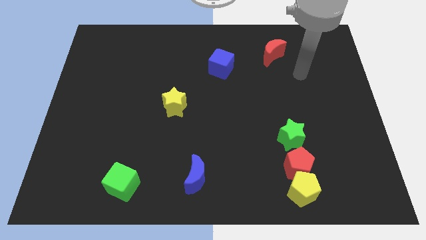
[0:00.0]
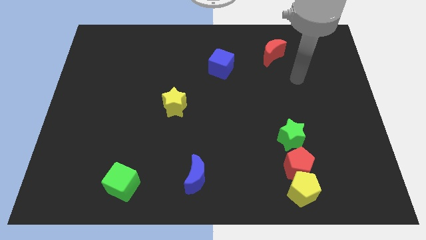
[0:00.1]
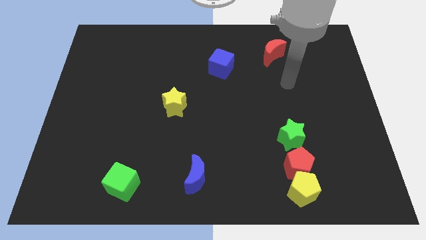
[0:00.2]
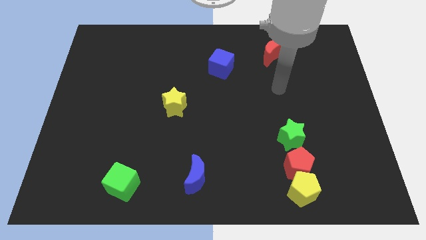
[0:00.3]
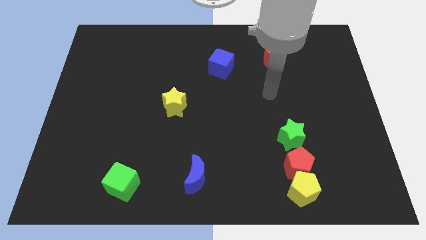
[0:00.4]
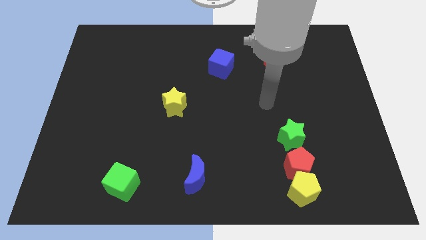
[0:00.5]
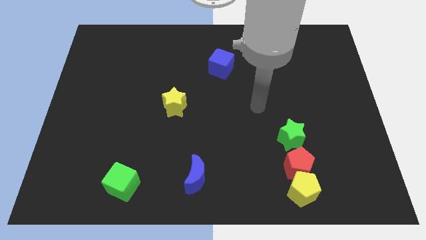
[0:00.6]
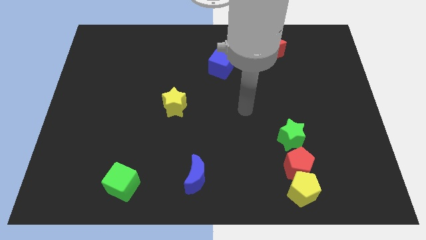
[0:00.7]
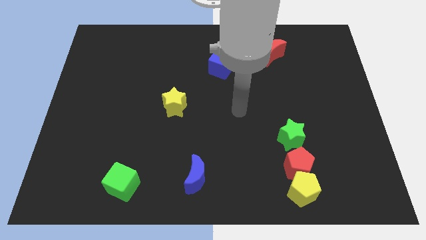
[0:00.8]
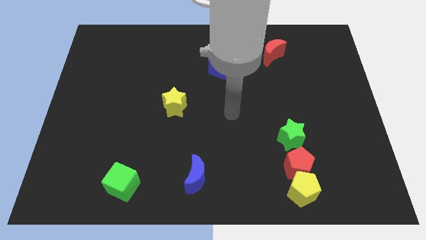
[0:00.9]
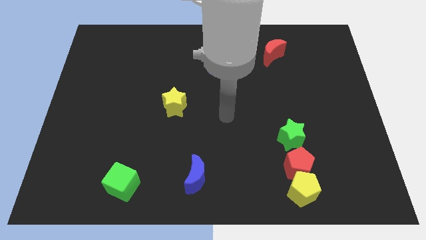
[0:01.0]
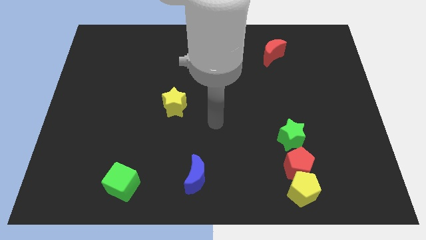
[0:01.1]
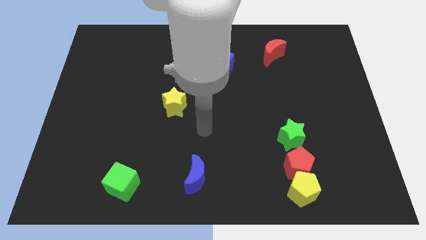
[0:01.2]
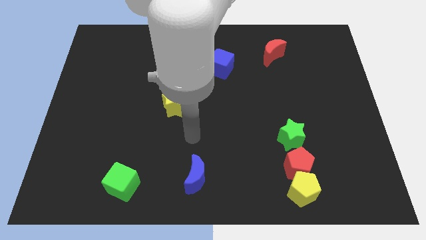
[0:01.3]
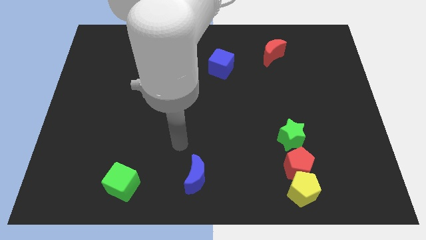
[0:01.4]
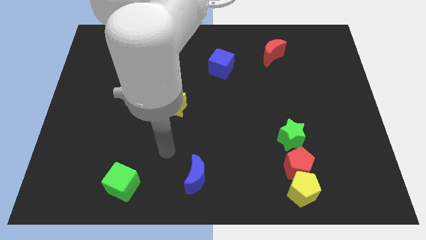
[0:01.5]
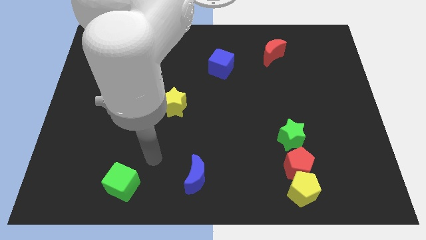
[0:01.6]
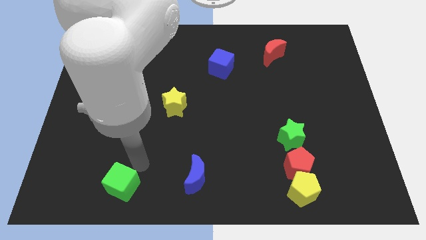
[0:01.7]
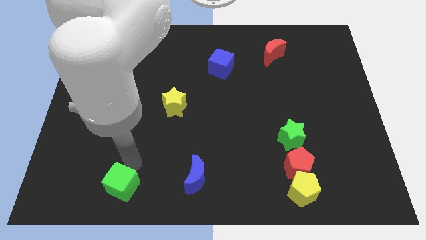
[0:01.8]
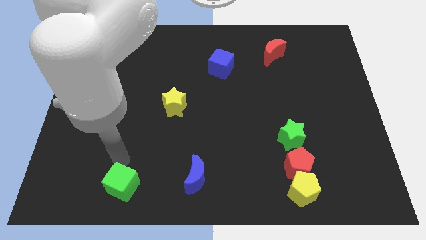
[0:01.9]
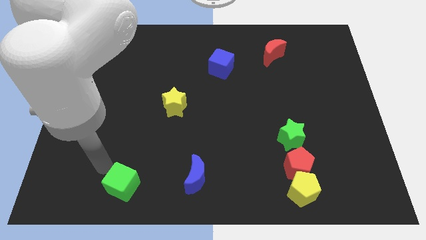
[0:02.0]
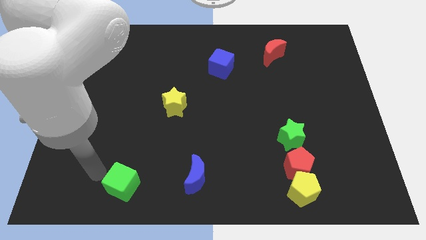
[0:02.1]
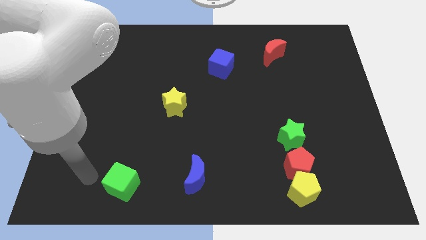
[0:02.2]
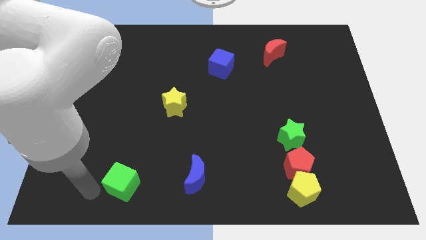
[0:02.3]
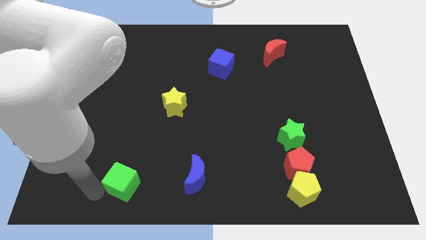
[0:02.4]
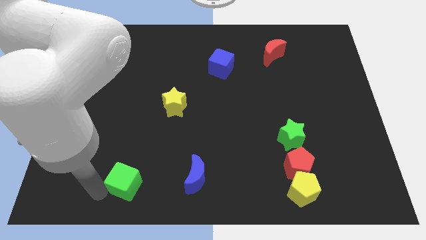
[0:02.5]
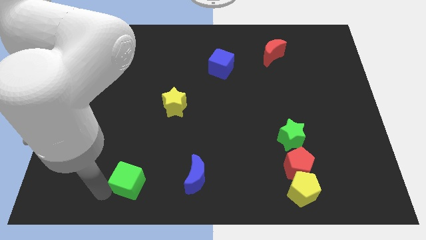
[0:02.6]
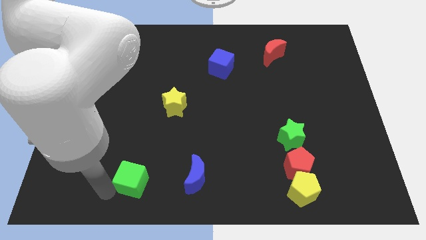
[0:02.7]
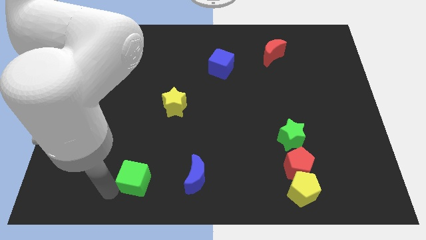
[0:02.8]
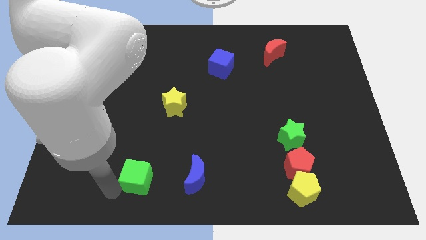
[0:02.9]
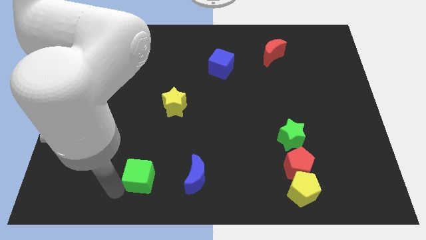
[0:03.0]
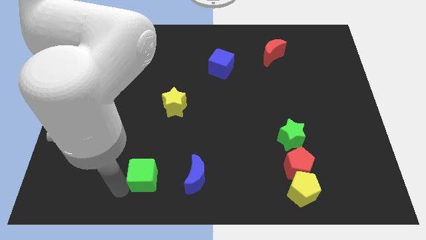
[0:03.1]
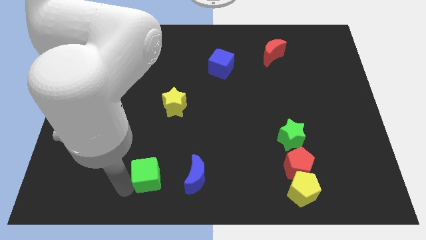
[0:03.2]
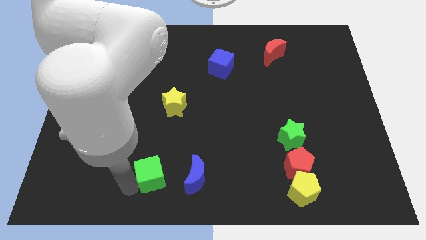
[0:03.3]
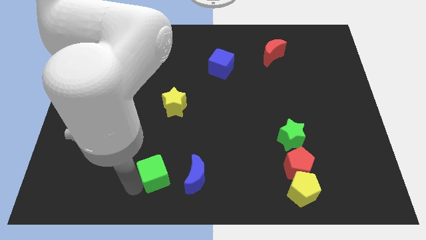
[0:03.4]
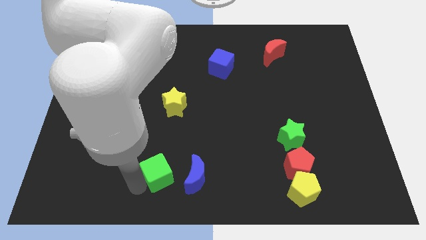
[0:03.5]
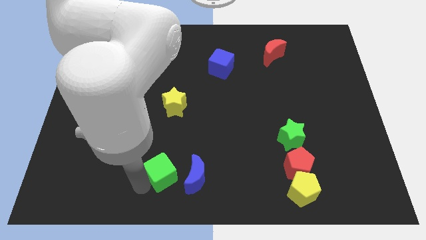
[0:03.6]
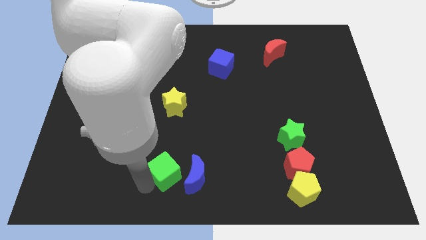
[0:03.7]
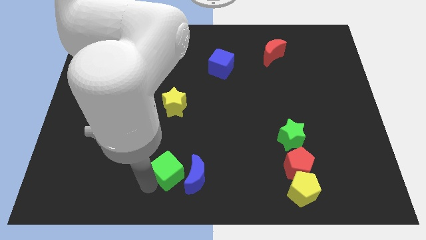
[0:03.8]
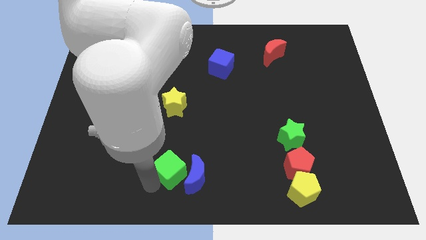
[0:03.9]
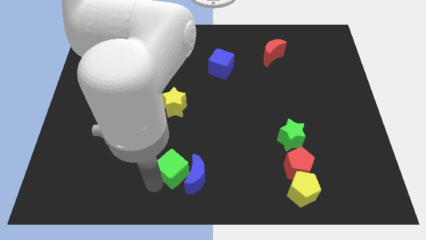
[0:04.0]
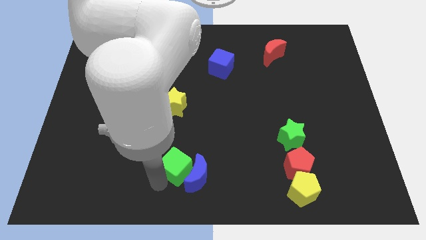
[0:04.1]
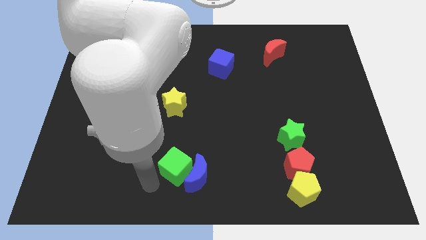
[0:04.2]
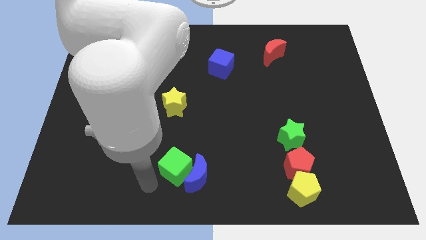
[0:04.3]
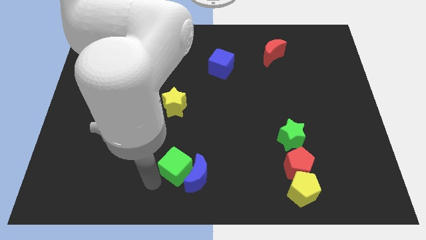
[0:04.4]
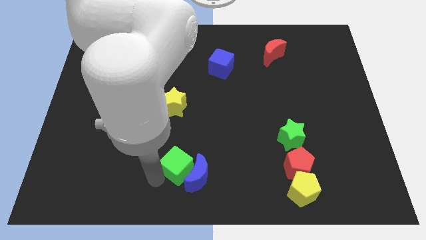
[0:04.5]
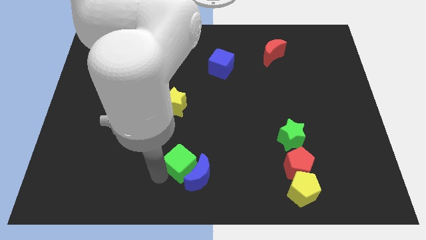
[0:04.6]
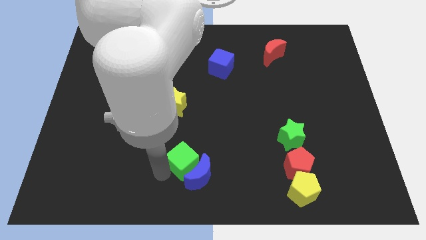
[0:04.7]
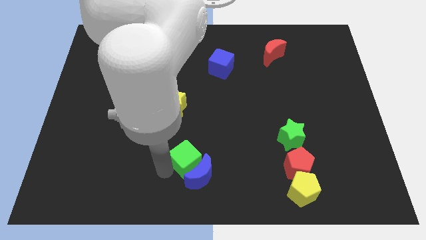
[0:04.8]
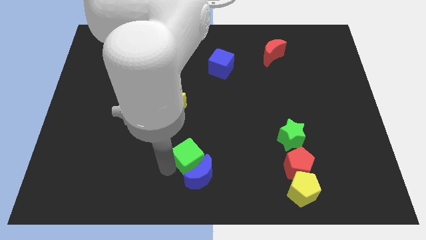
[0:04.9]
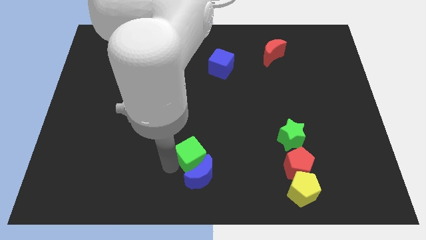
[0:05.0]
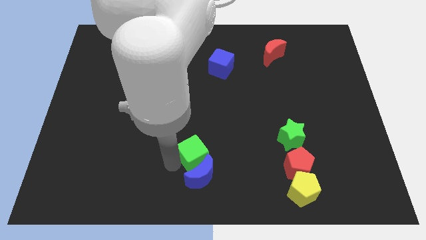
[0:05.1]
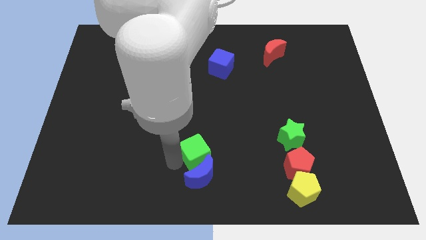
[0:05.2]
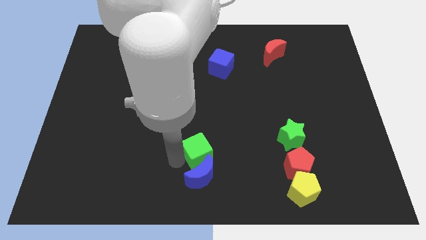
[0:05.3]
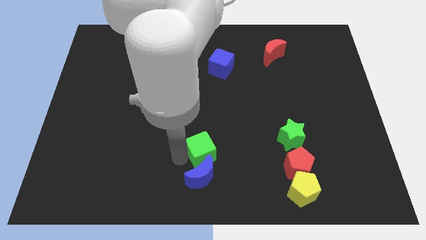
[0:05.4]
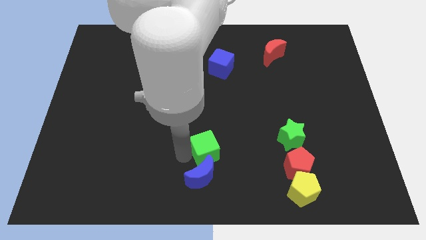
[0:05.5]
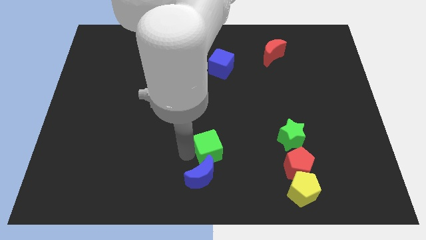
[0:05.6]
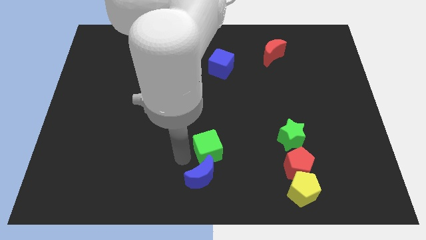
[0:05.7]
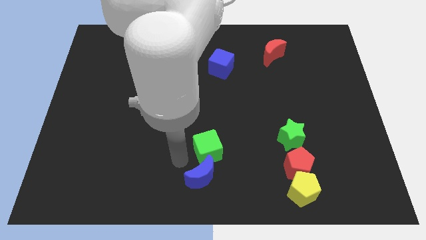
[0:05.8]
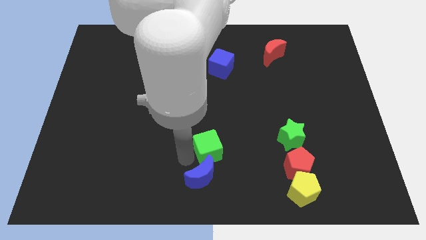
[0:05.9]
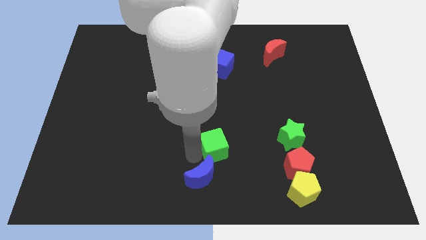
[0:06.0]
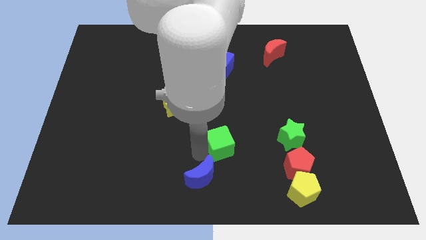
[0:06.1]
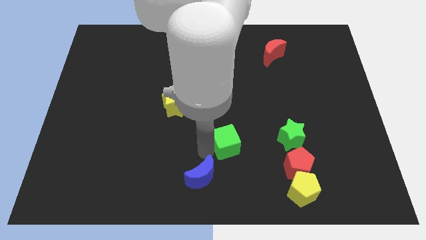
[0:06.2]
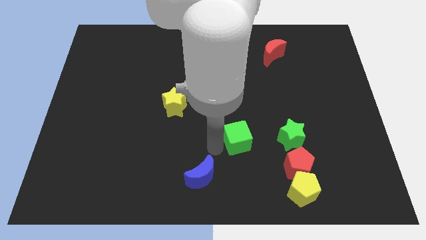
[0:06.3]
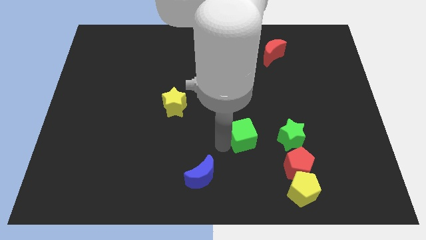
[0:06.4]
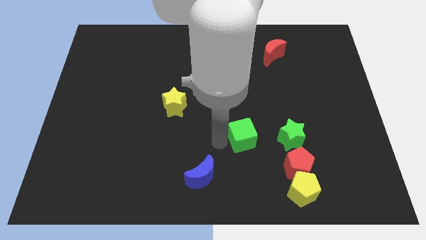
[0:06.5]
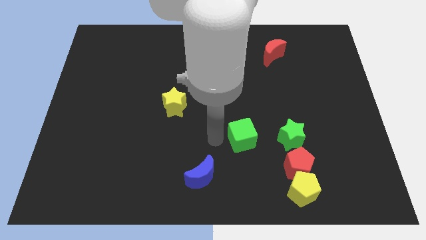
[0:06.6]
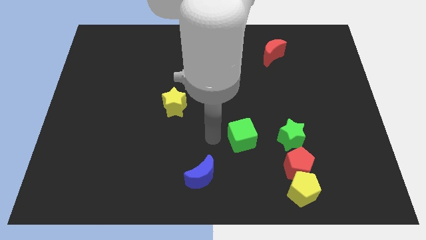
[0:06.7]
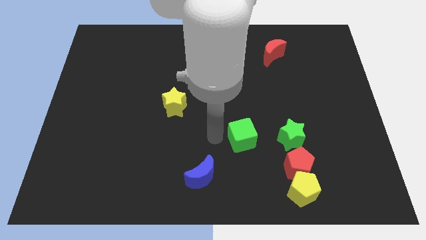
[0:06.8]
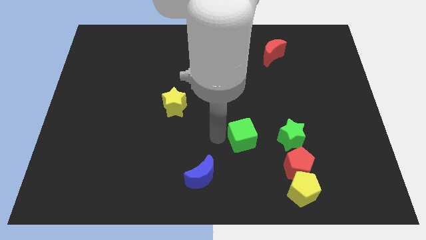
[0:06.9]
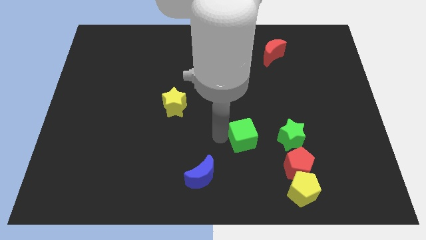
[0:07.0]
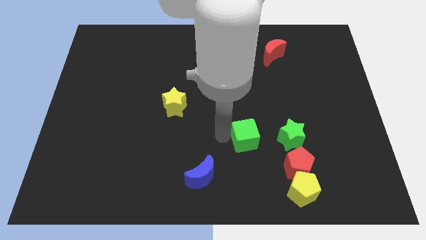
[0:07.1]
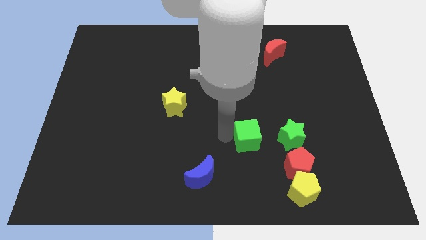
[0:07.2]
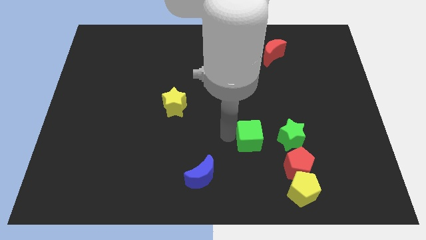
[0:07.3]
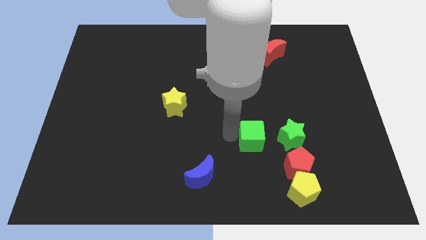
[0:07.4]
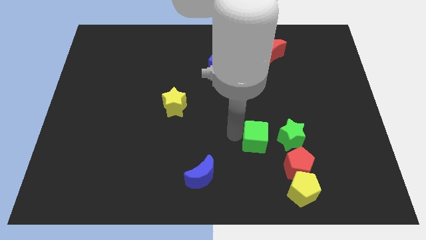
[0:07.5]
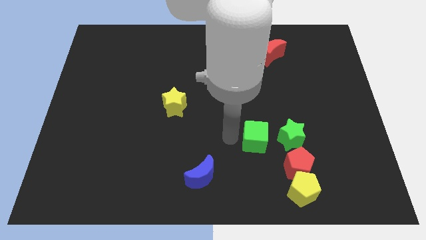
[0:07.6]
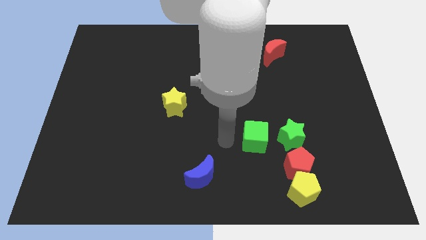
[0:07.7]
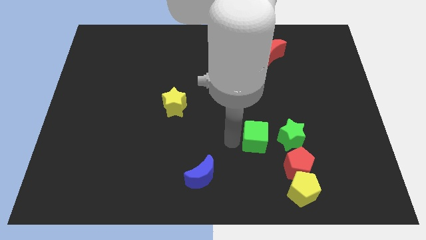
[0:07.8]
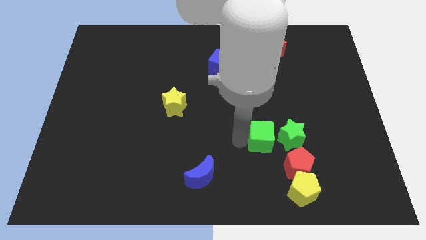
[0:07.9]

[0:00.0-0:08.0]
push the green cube to the green star

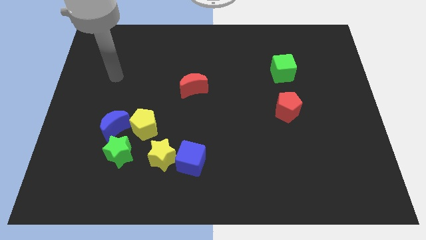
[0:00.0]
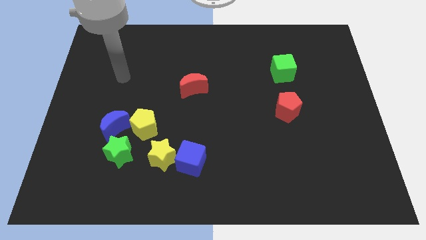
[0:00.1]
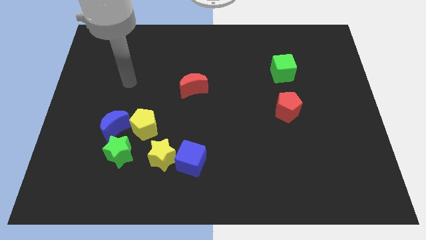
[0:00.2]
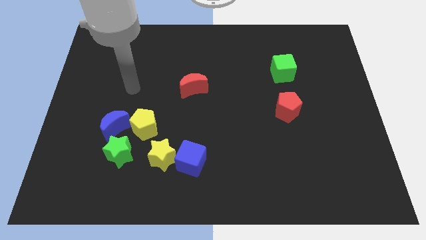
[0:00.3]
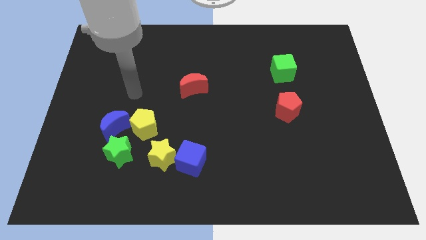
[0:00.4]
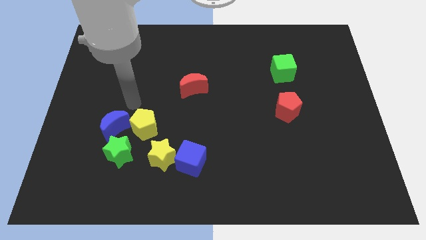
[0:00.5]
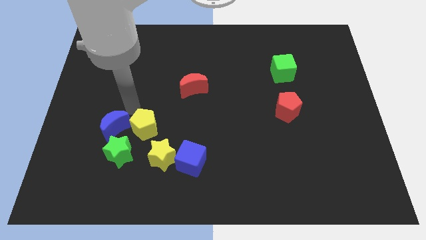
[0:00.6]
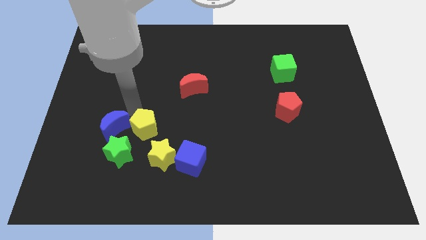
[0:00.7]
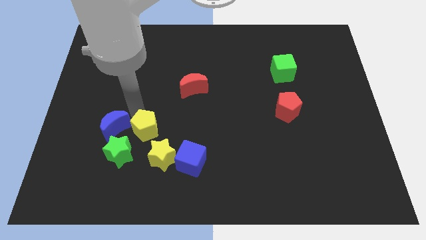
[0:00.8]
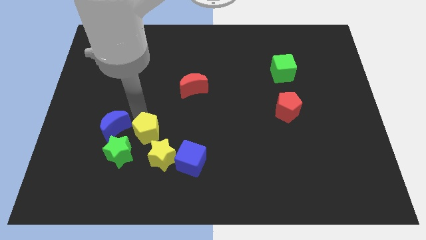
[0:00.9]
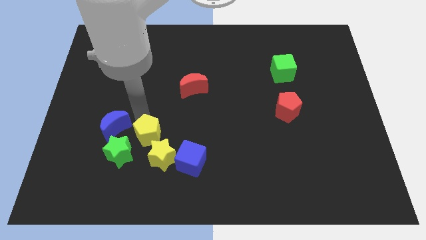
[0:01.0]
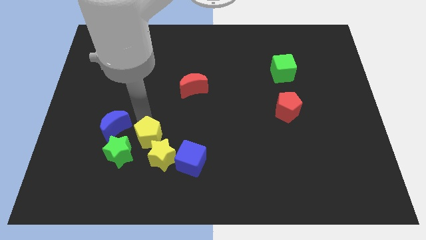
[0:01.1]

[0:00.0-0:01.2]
slide the yellow pentagon towards the yellow star
